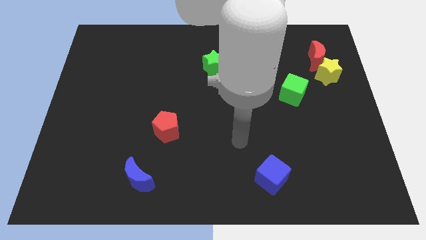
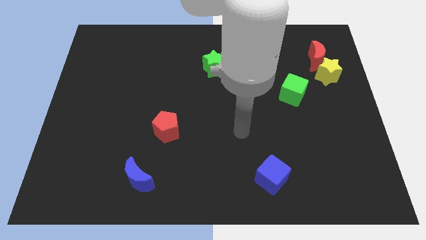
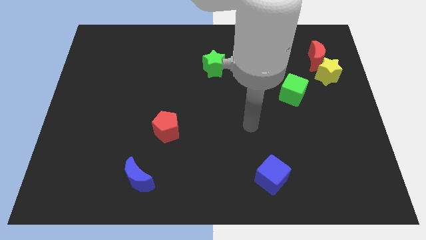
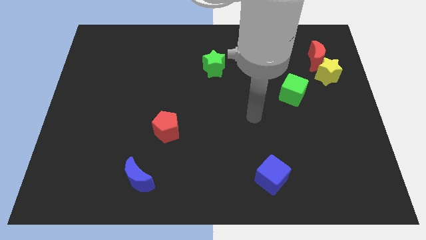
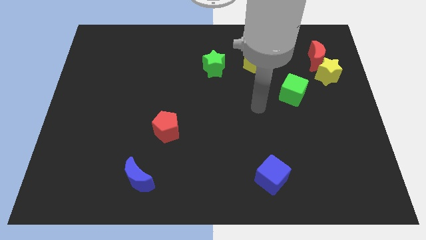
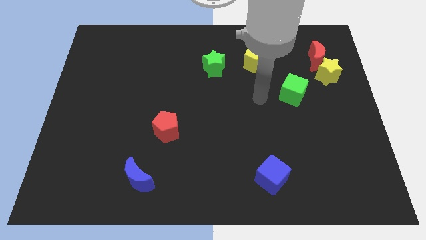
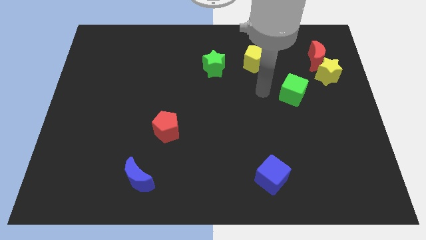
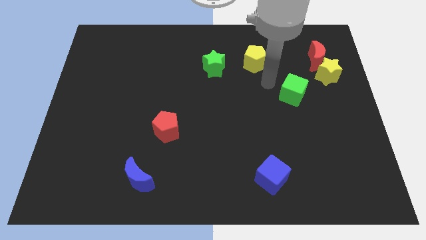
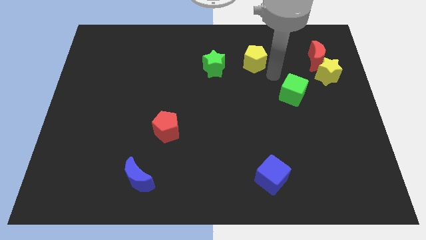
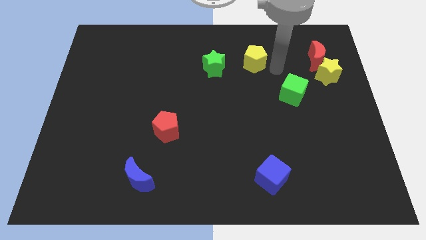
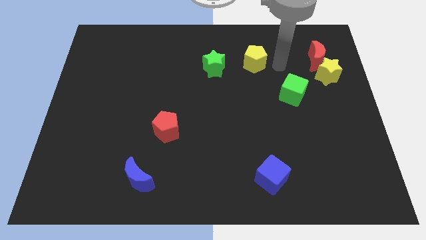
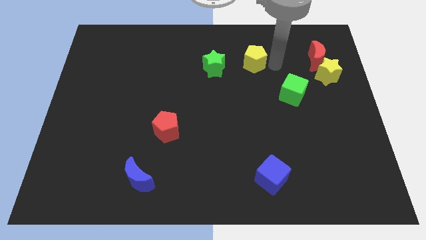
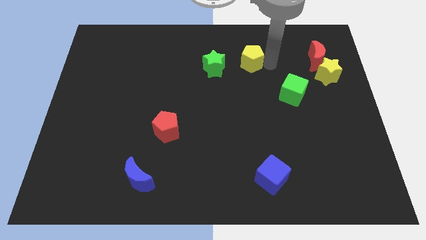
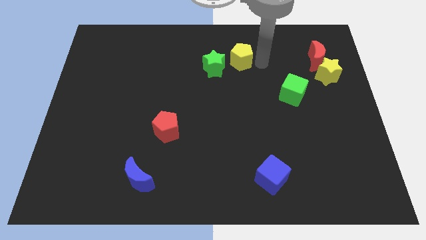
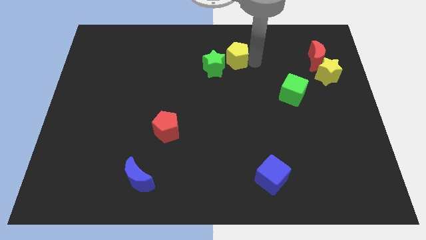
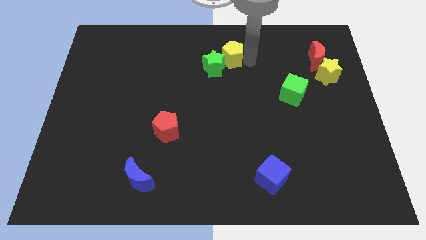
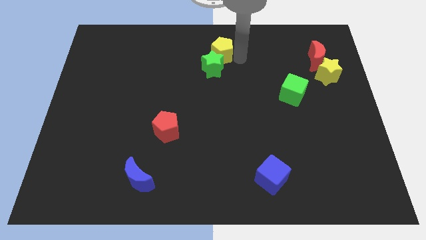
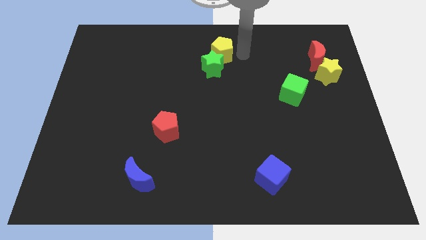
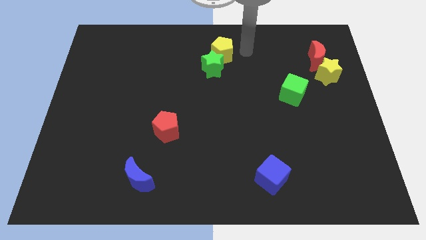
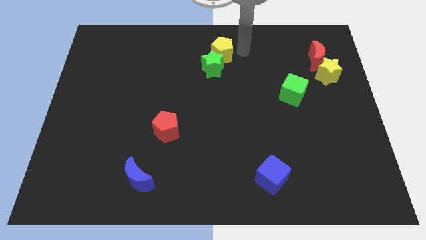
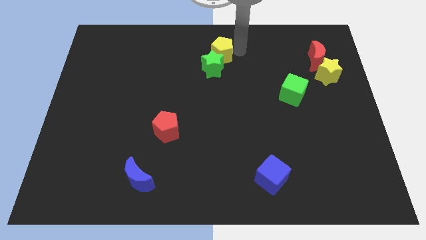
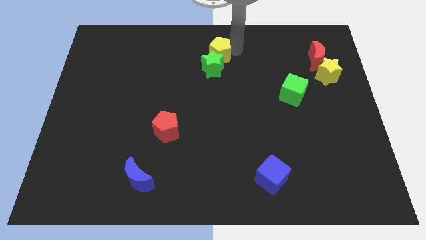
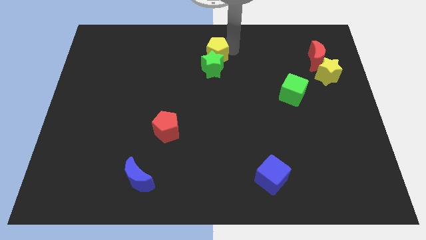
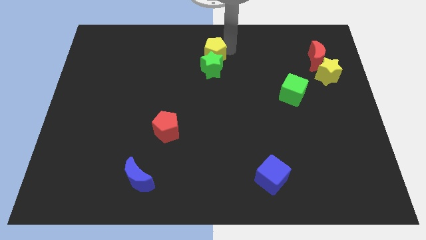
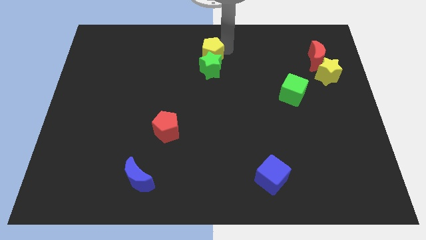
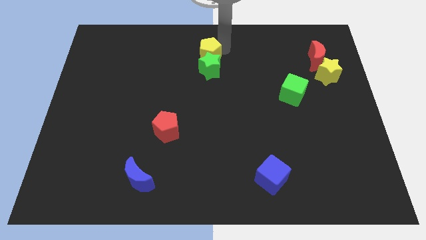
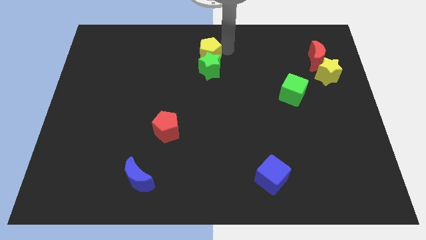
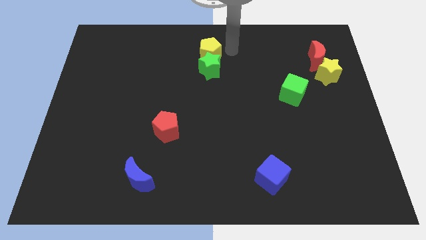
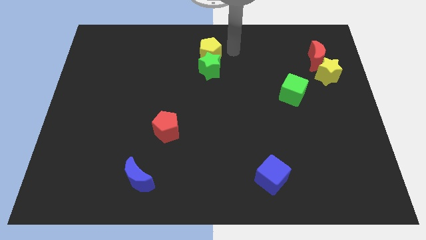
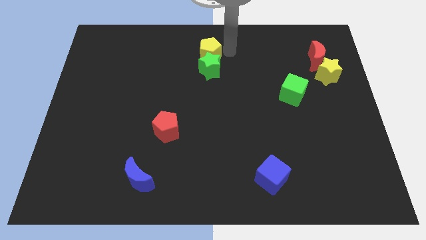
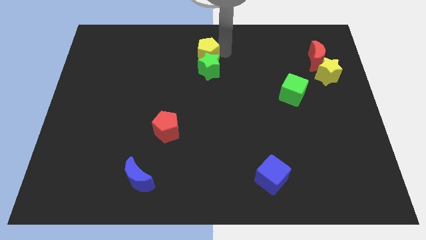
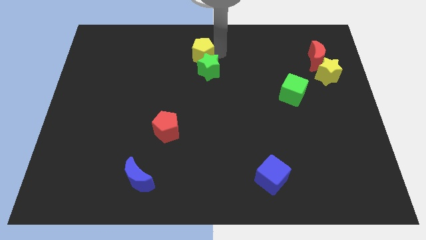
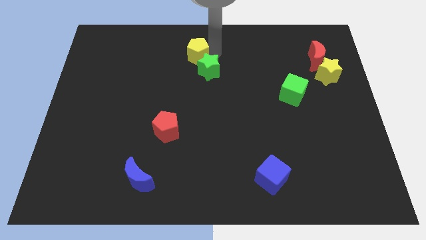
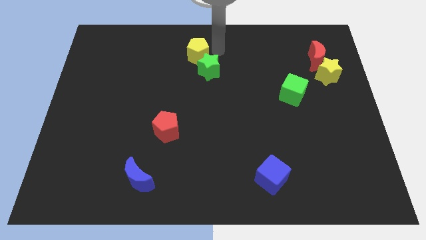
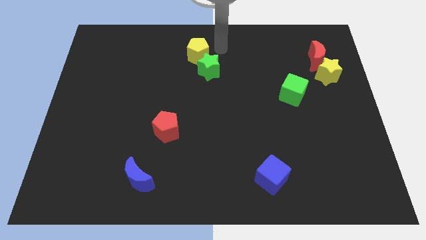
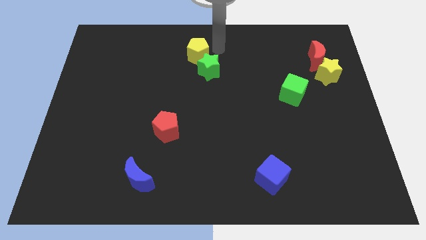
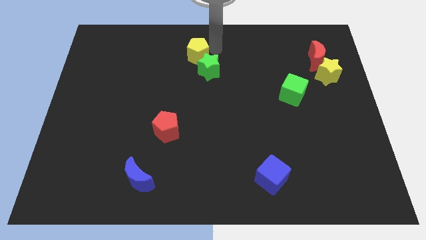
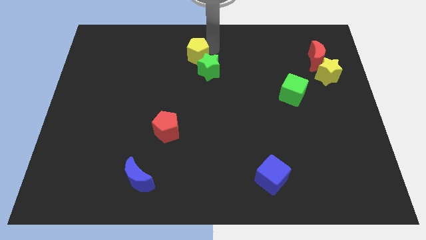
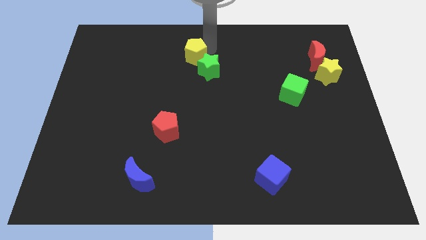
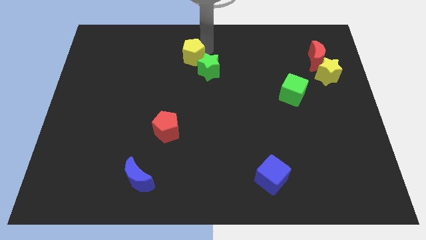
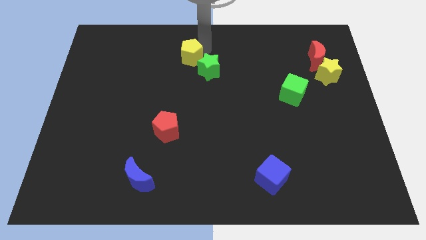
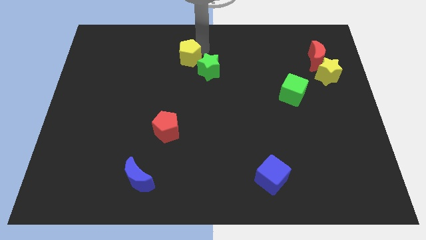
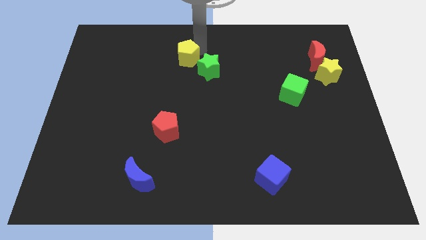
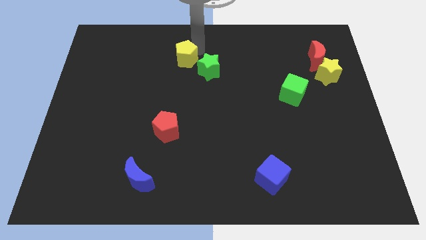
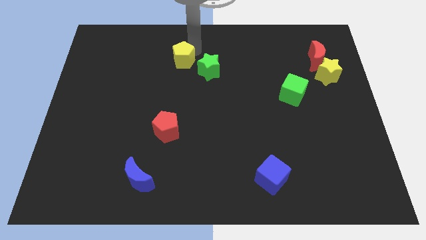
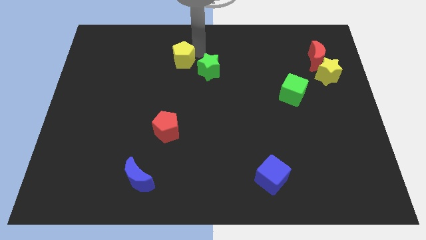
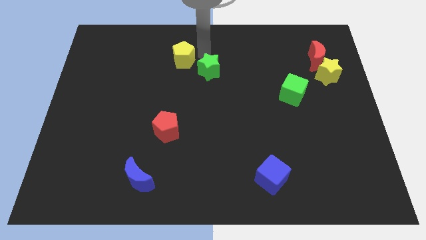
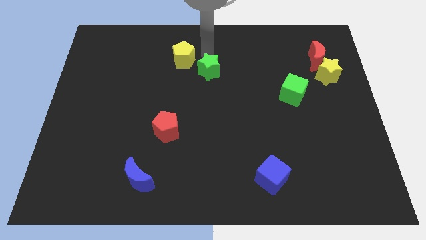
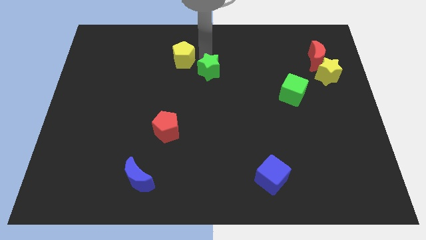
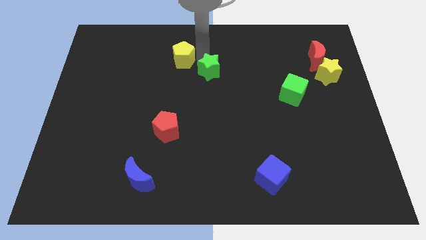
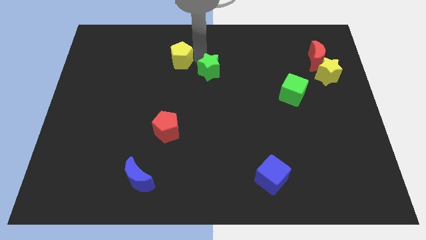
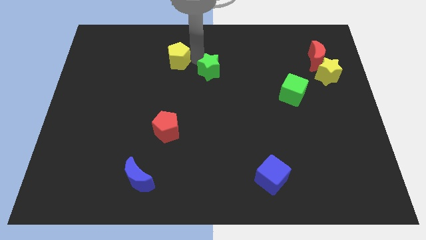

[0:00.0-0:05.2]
move the yellow pentagon to the left

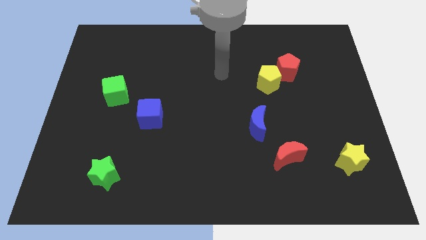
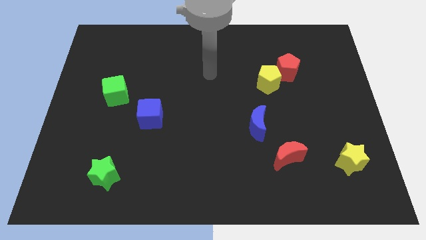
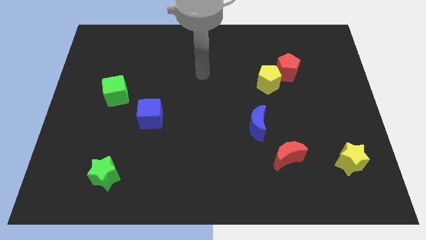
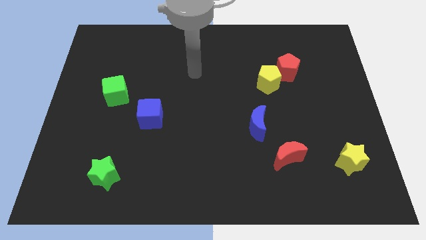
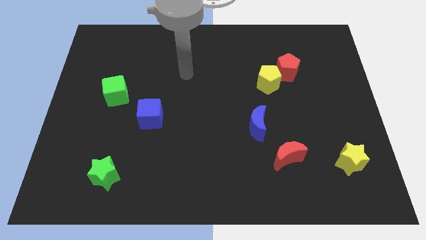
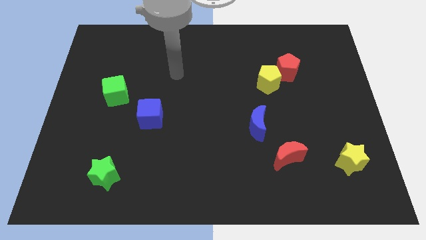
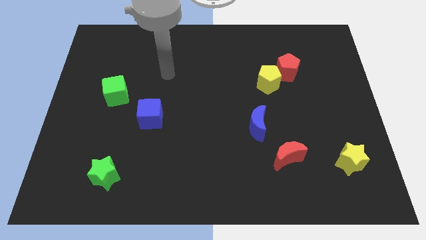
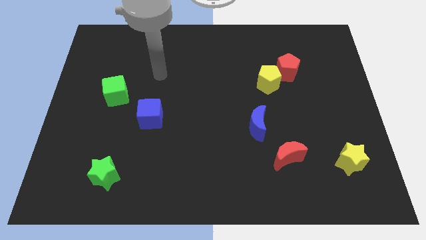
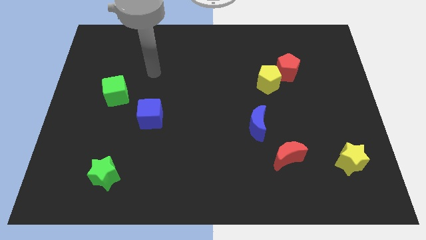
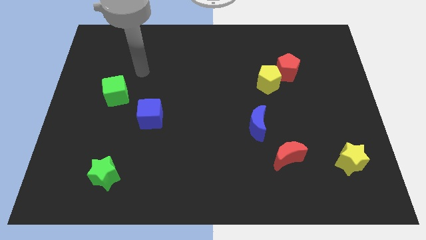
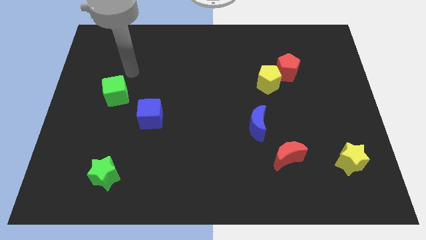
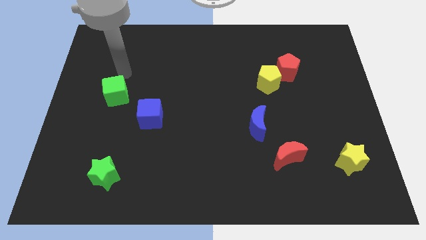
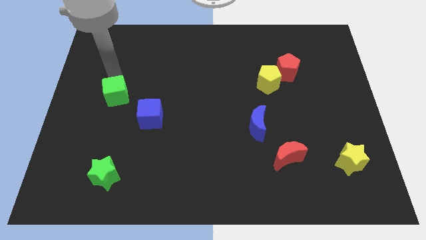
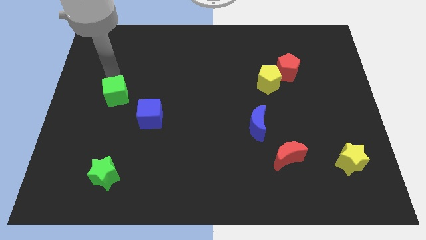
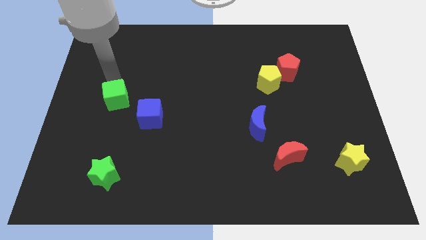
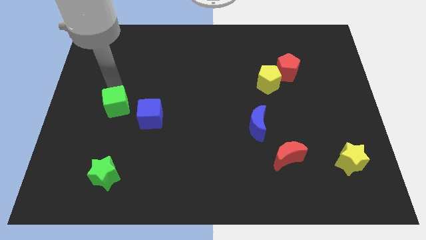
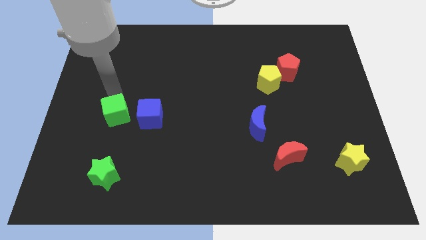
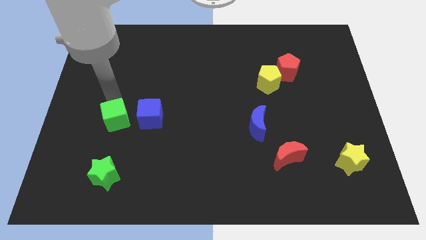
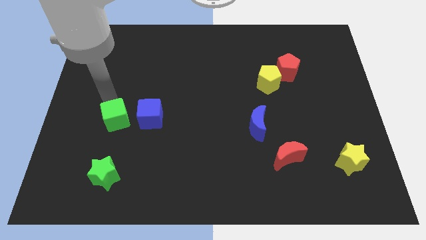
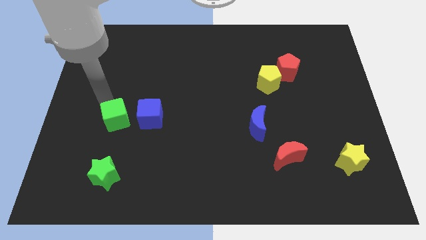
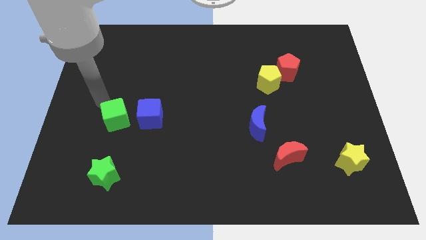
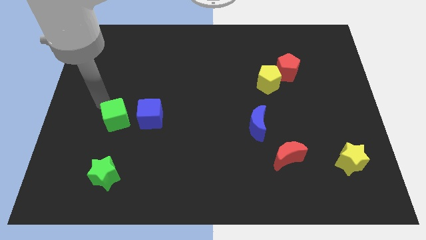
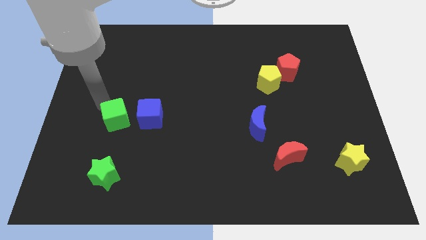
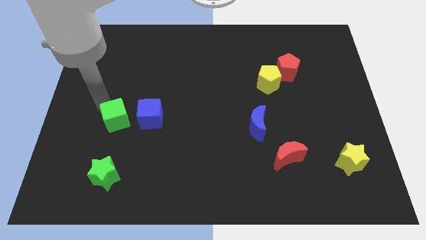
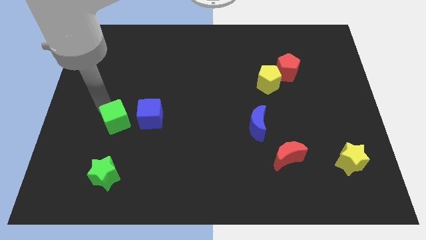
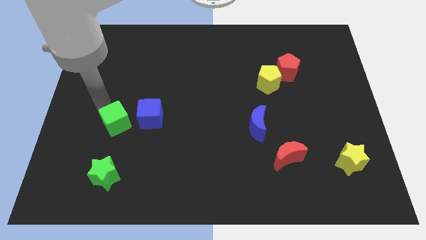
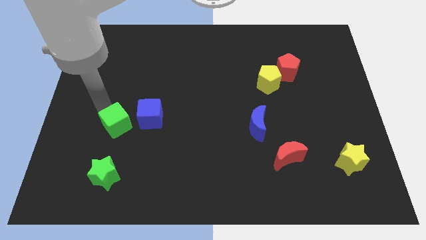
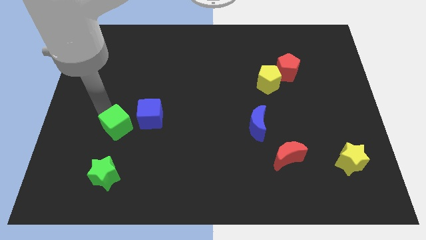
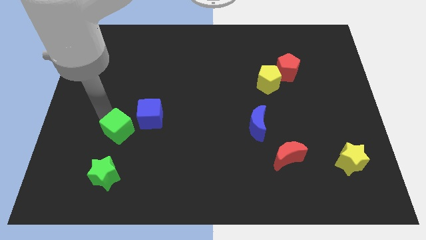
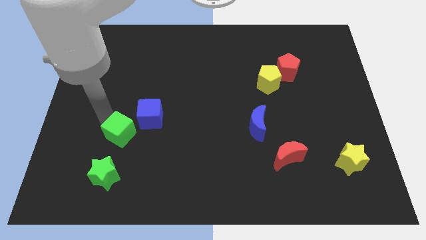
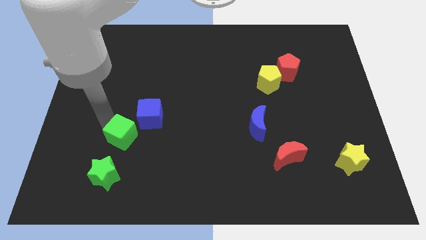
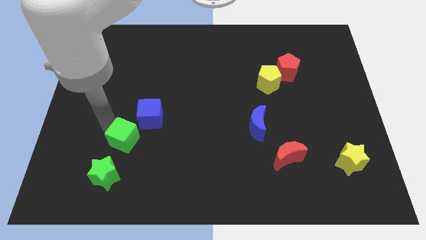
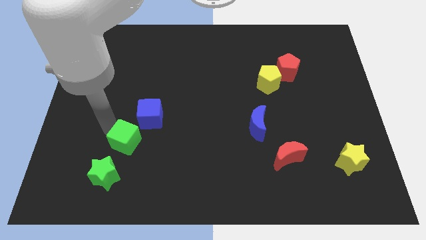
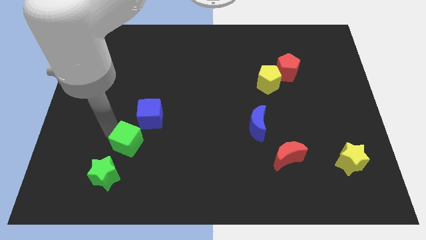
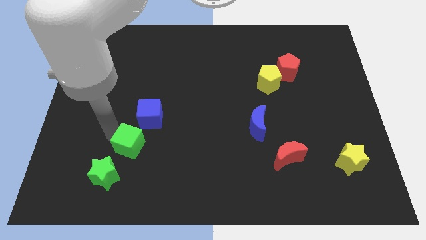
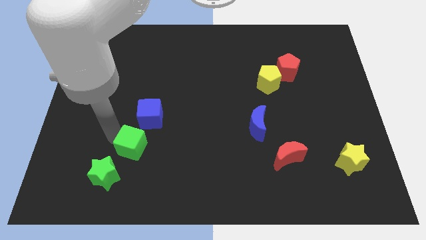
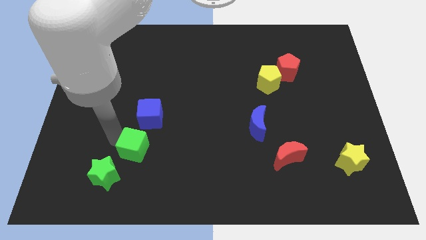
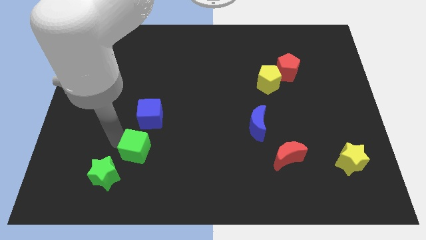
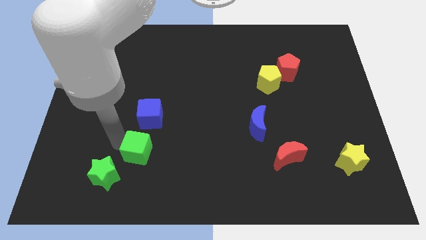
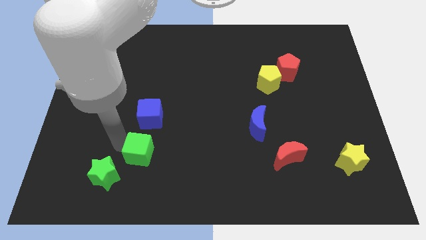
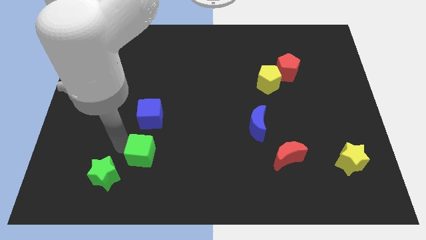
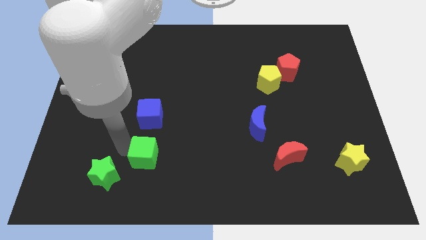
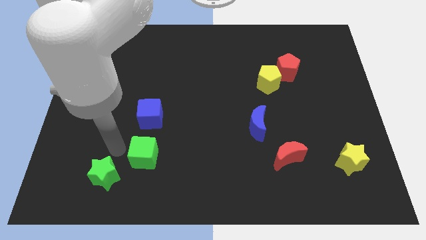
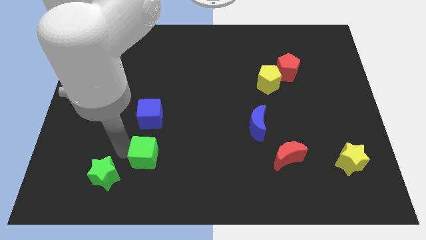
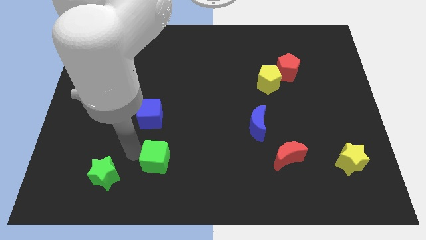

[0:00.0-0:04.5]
slide the green cube down and then right
